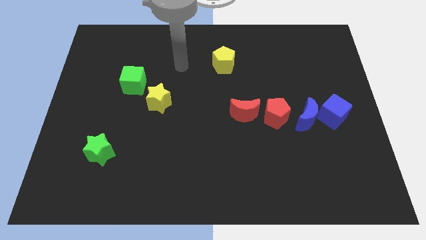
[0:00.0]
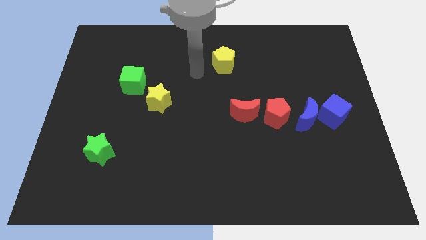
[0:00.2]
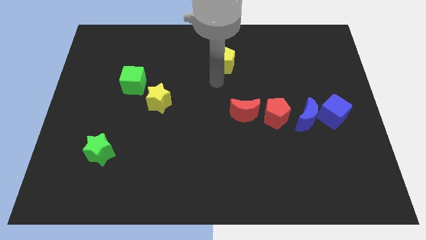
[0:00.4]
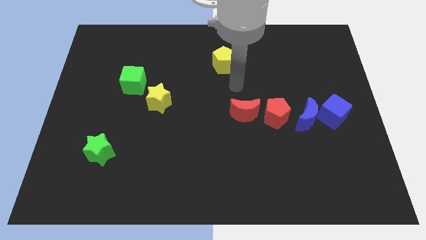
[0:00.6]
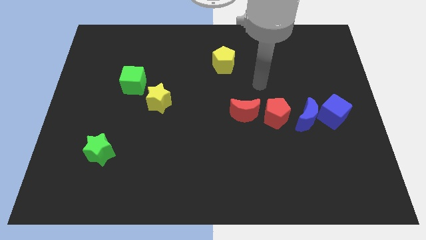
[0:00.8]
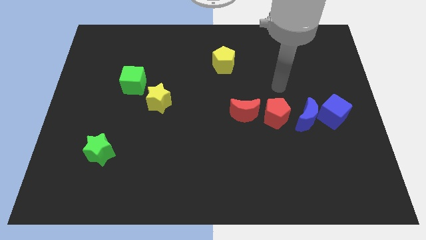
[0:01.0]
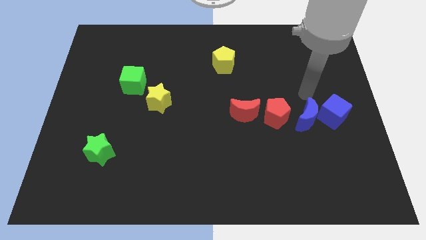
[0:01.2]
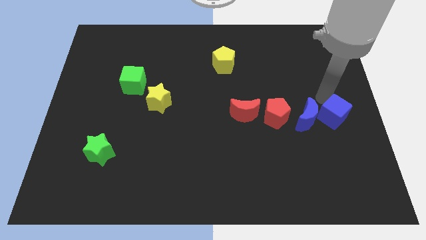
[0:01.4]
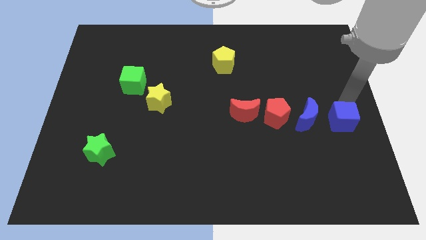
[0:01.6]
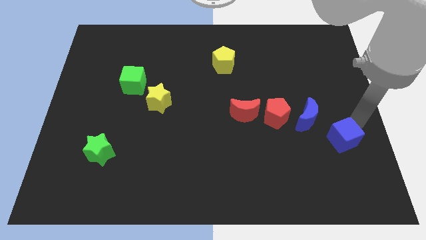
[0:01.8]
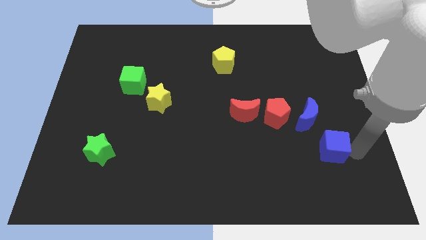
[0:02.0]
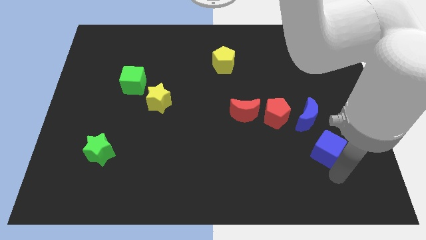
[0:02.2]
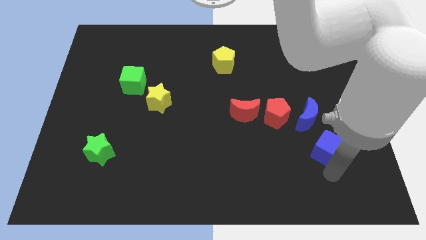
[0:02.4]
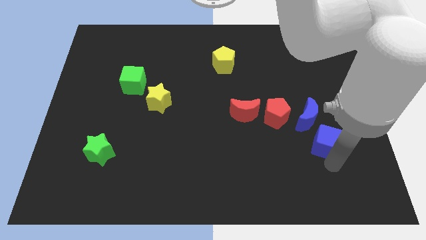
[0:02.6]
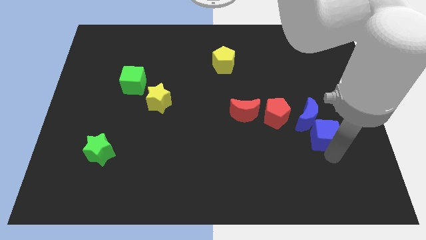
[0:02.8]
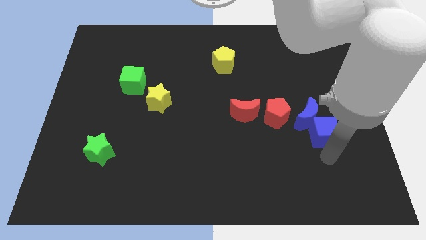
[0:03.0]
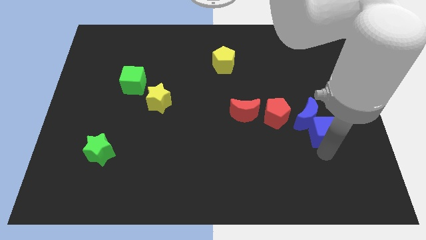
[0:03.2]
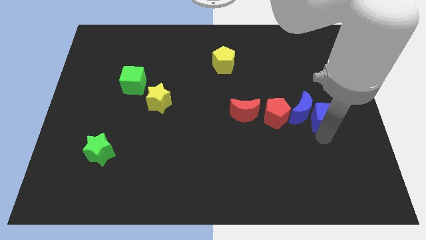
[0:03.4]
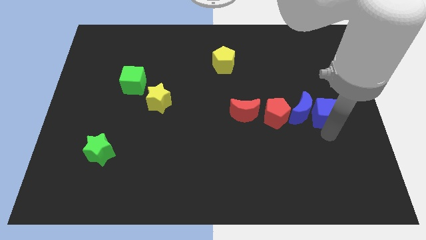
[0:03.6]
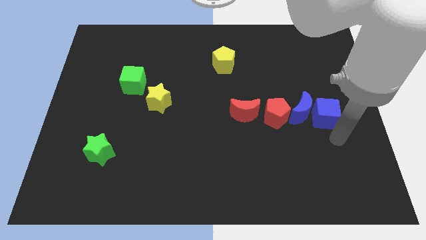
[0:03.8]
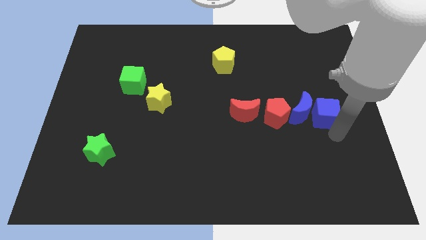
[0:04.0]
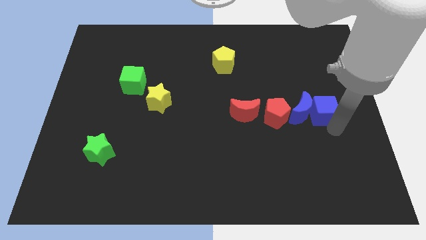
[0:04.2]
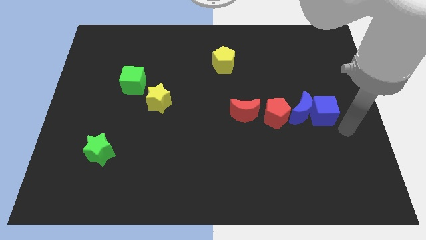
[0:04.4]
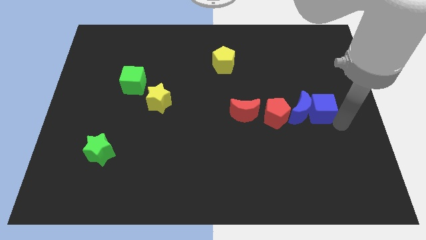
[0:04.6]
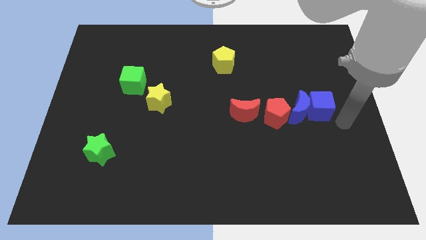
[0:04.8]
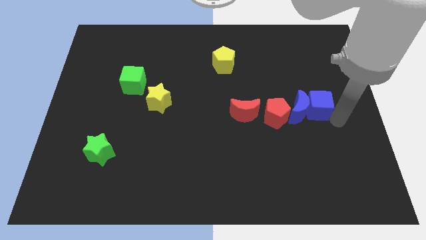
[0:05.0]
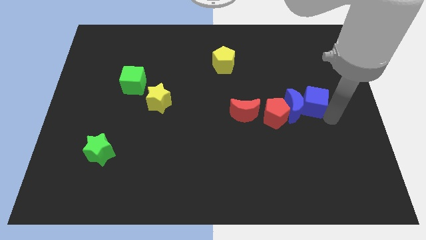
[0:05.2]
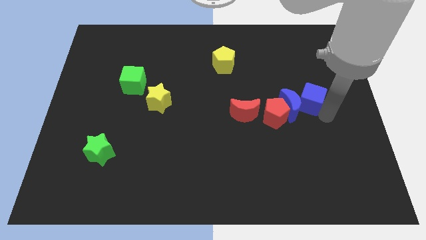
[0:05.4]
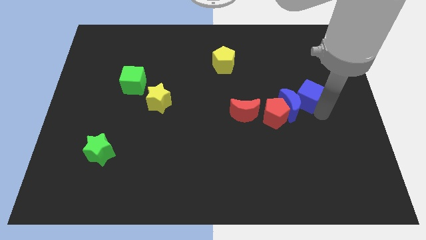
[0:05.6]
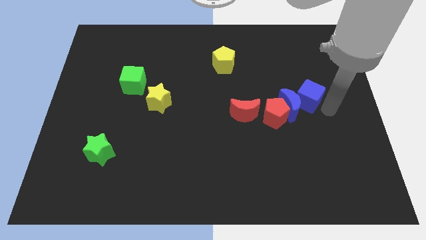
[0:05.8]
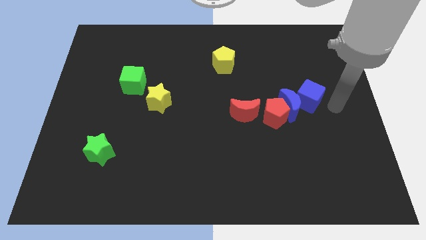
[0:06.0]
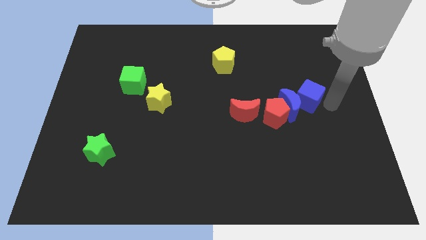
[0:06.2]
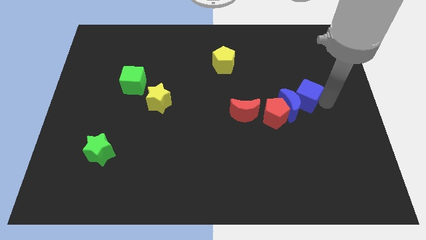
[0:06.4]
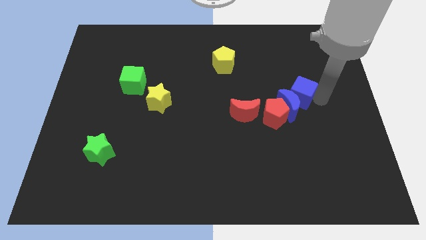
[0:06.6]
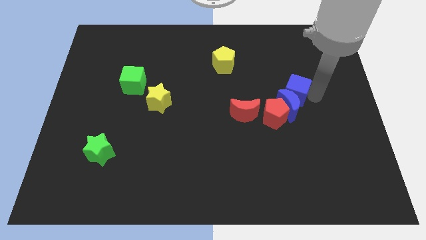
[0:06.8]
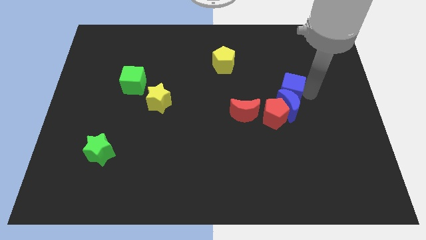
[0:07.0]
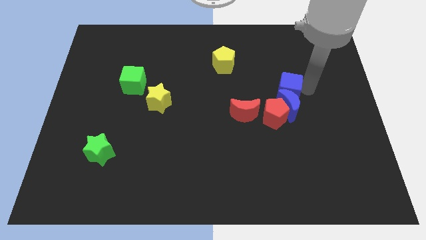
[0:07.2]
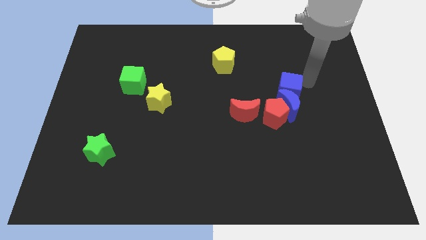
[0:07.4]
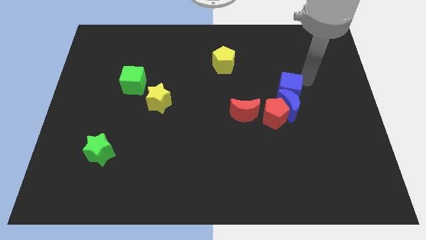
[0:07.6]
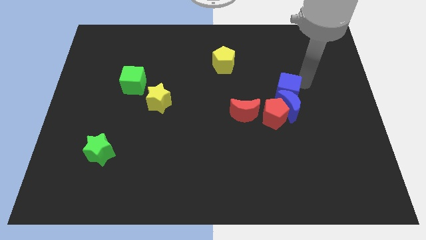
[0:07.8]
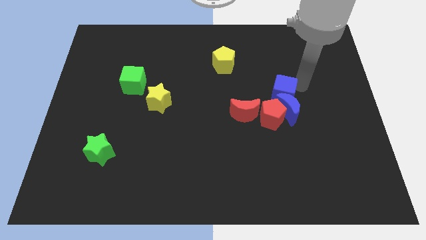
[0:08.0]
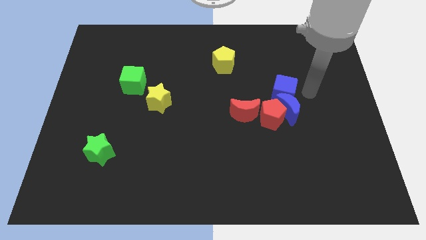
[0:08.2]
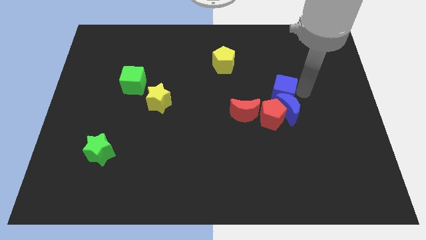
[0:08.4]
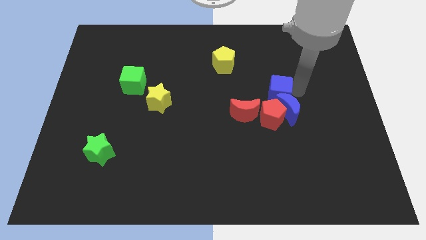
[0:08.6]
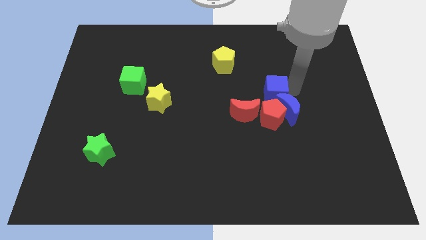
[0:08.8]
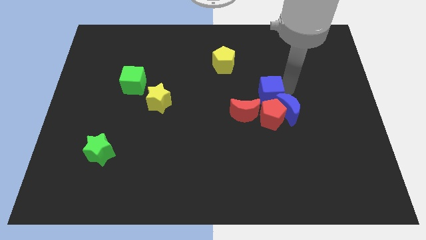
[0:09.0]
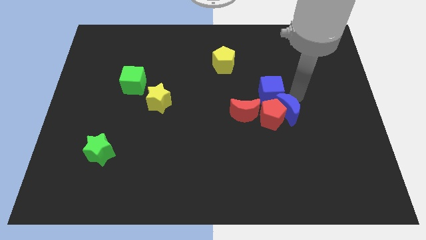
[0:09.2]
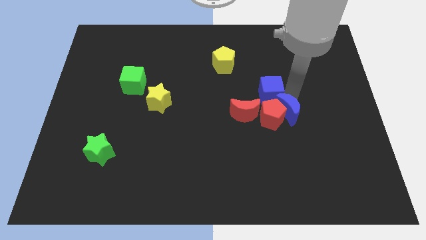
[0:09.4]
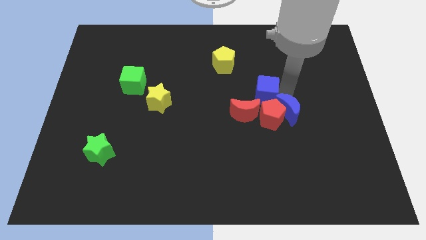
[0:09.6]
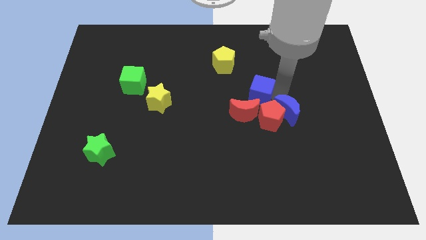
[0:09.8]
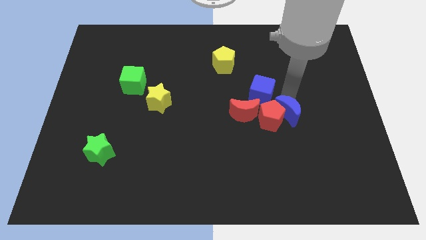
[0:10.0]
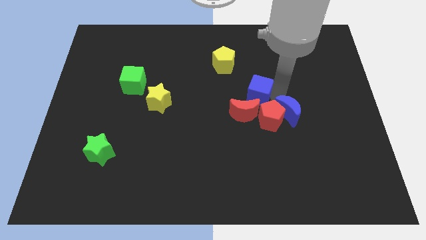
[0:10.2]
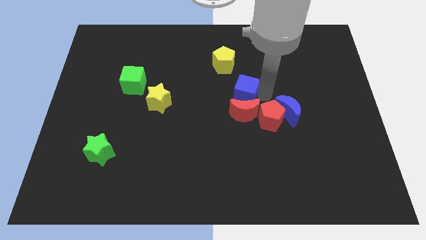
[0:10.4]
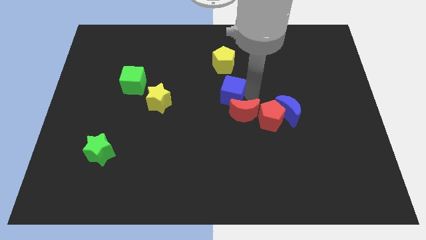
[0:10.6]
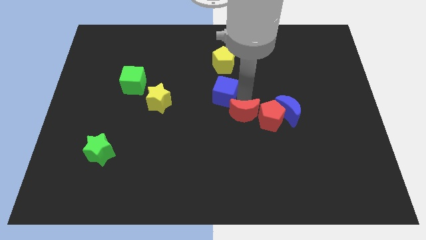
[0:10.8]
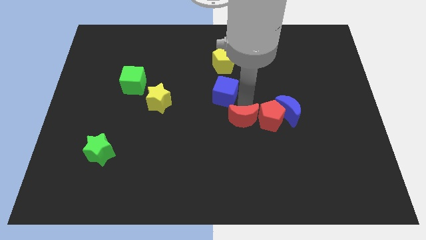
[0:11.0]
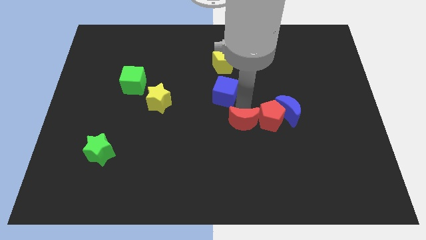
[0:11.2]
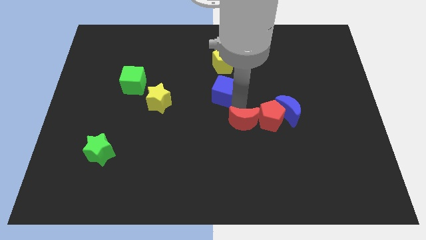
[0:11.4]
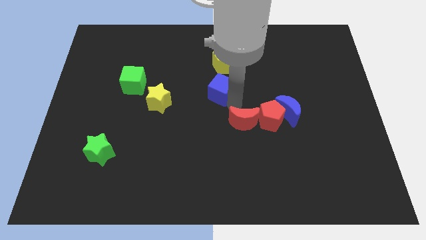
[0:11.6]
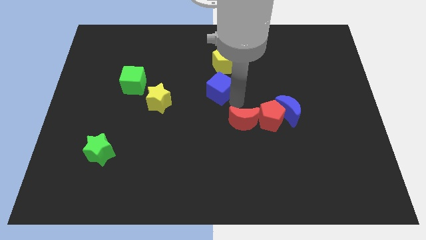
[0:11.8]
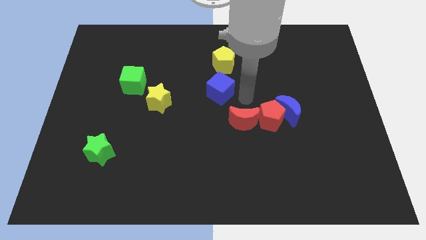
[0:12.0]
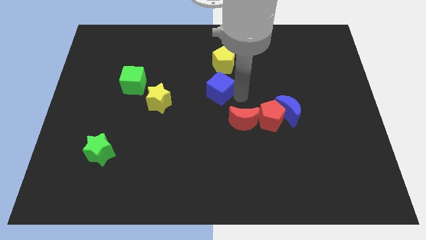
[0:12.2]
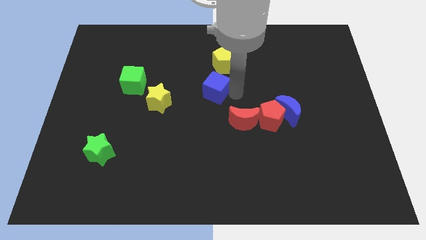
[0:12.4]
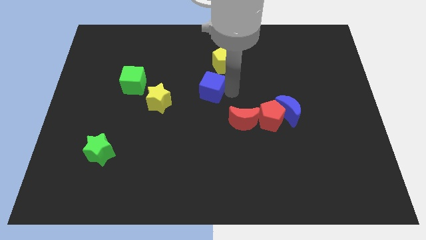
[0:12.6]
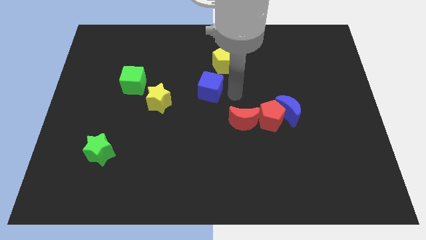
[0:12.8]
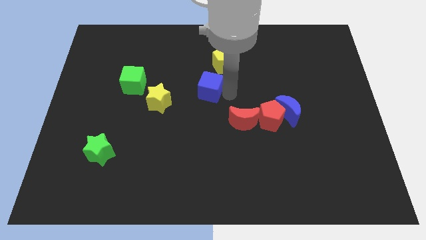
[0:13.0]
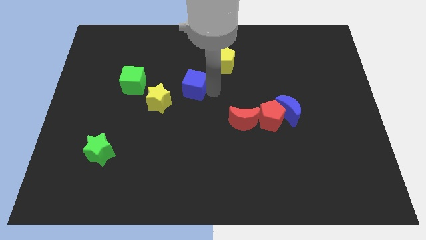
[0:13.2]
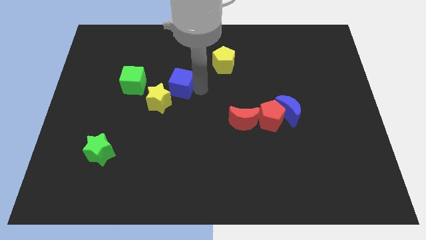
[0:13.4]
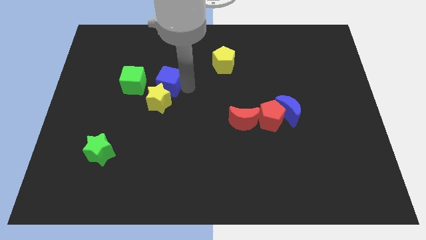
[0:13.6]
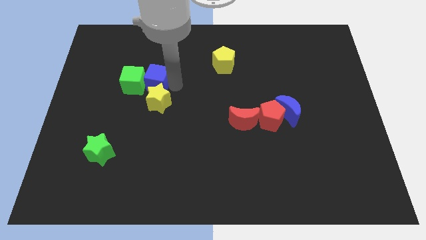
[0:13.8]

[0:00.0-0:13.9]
move the blue cube close to the green cube

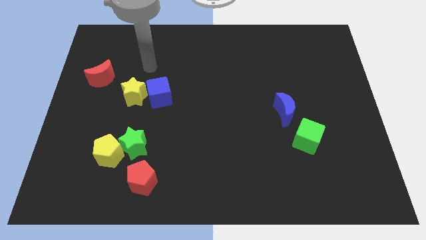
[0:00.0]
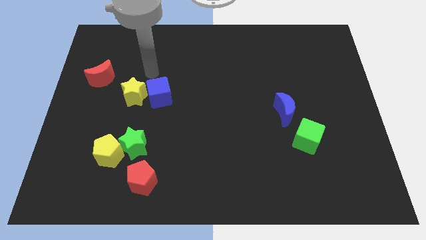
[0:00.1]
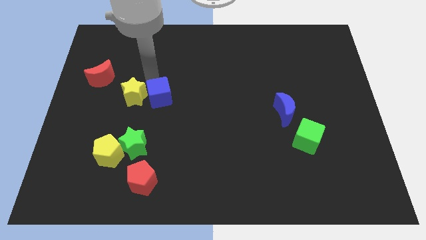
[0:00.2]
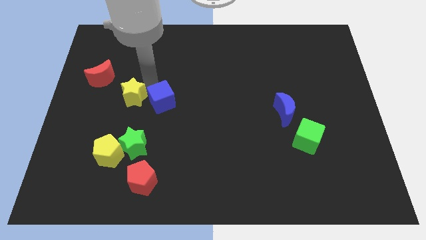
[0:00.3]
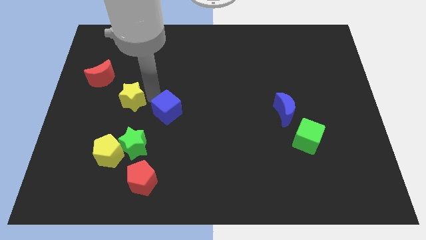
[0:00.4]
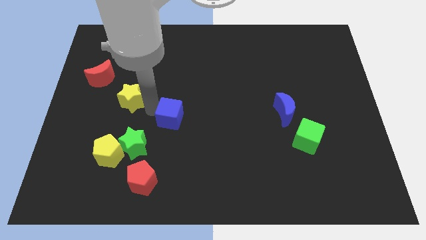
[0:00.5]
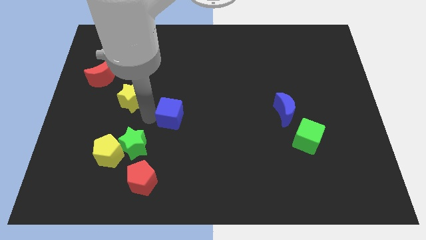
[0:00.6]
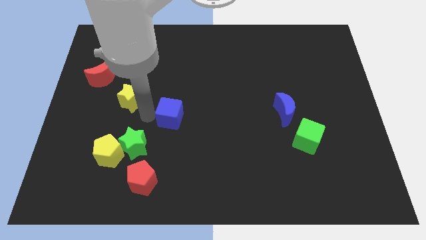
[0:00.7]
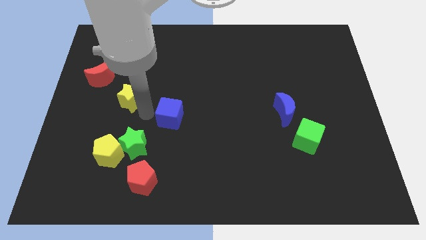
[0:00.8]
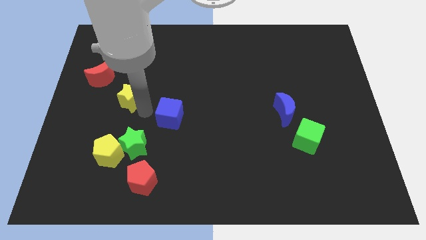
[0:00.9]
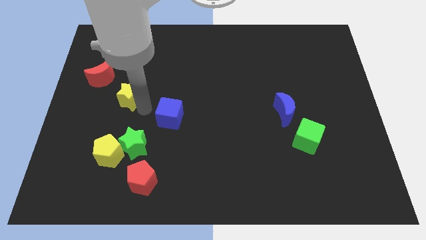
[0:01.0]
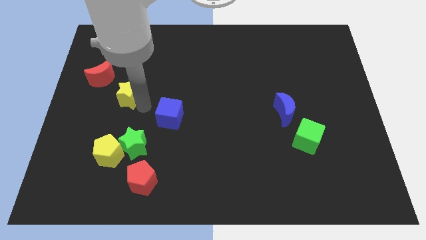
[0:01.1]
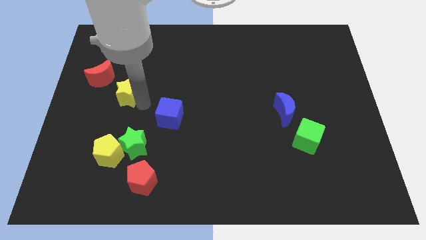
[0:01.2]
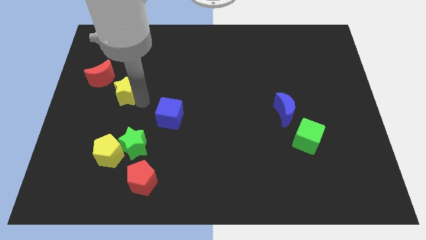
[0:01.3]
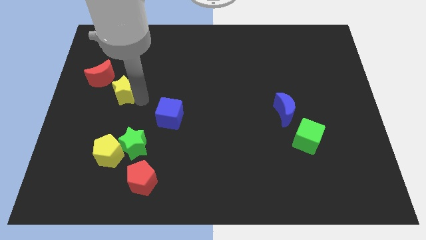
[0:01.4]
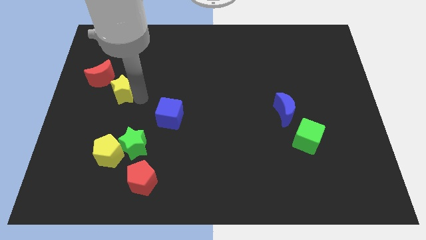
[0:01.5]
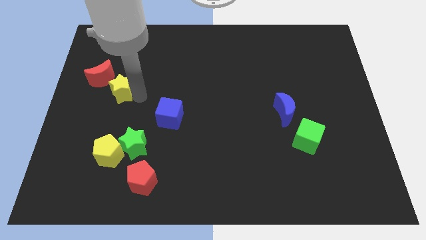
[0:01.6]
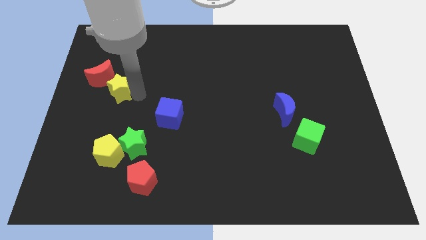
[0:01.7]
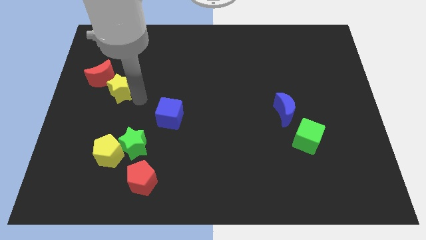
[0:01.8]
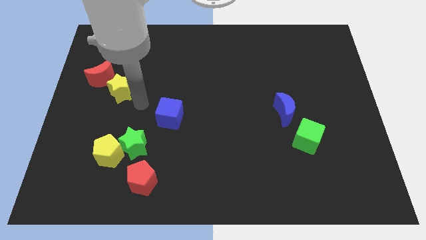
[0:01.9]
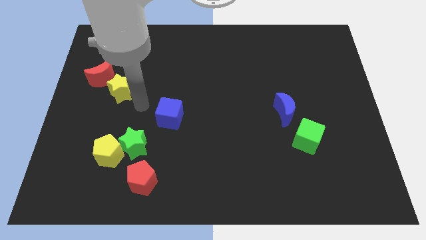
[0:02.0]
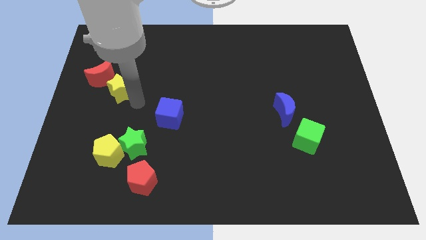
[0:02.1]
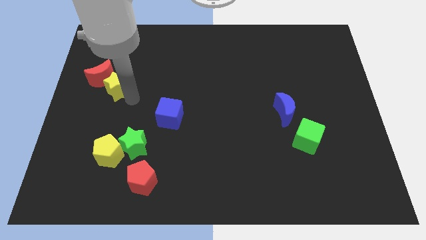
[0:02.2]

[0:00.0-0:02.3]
slide the yellow star close to the red moon
